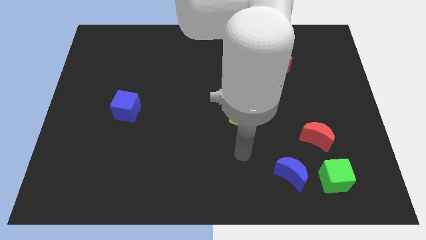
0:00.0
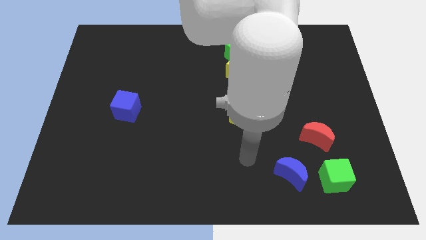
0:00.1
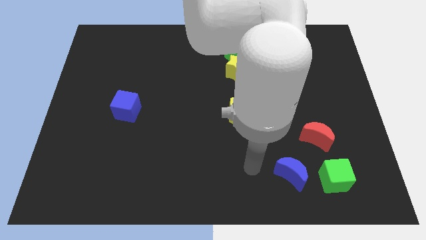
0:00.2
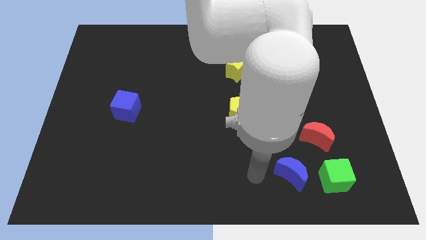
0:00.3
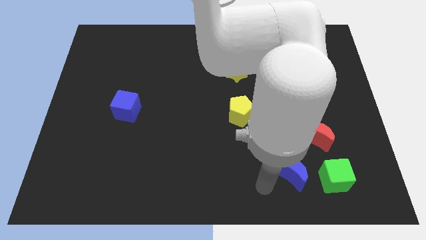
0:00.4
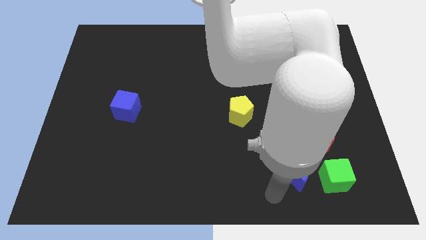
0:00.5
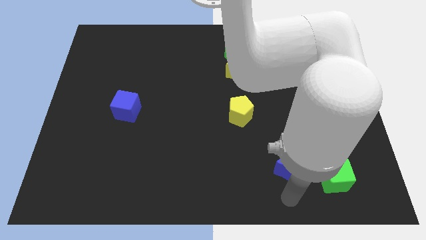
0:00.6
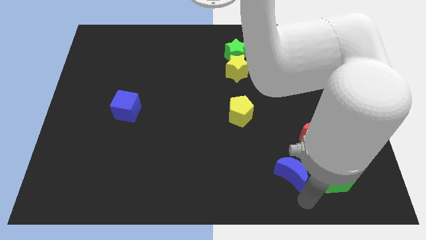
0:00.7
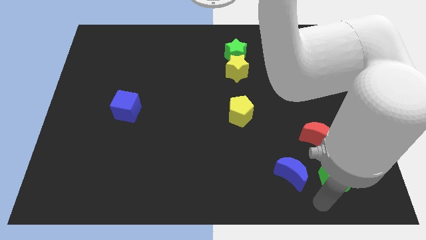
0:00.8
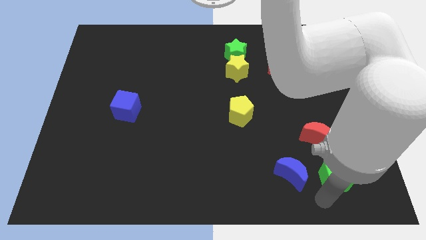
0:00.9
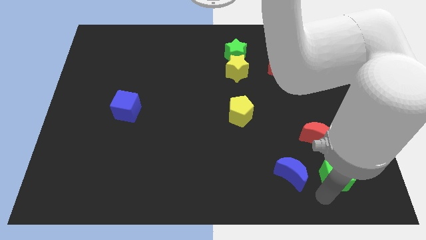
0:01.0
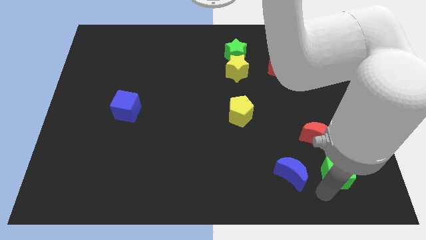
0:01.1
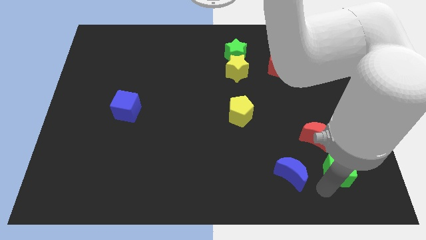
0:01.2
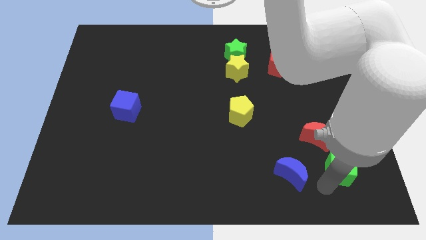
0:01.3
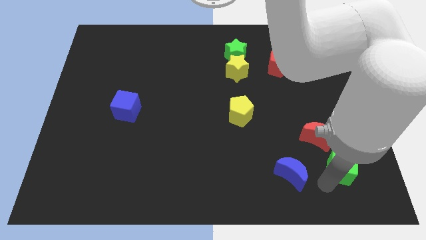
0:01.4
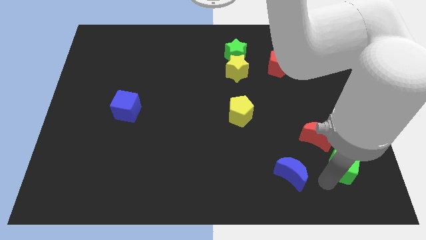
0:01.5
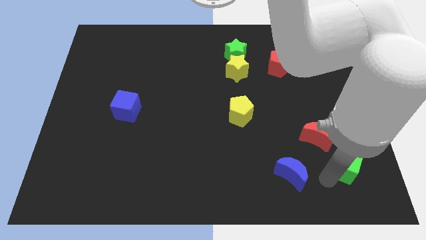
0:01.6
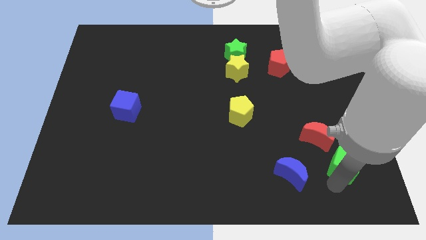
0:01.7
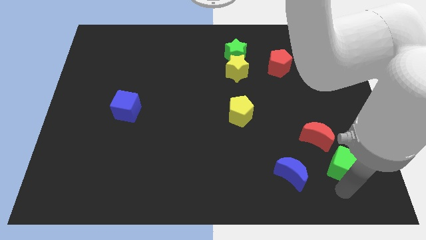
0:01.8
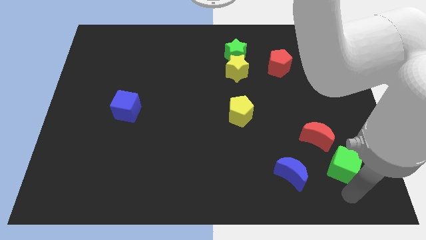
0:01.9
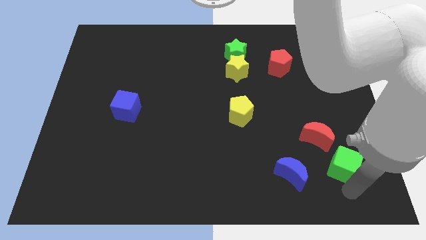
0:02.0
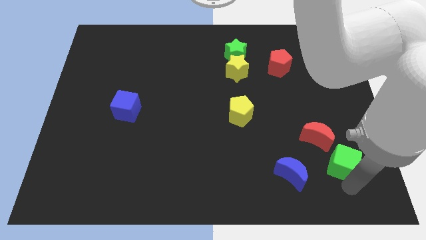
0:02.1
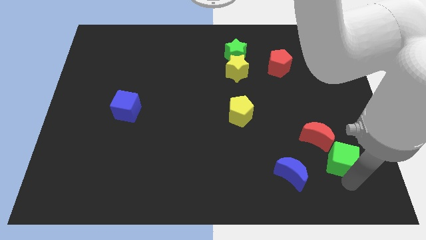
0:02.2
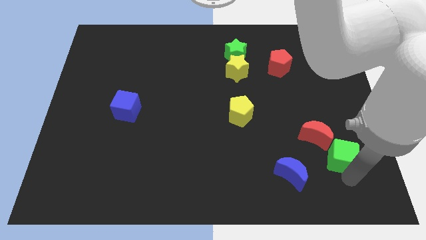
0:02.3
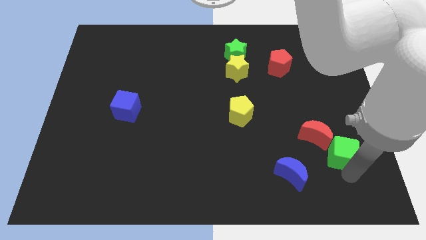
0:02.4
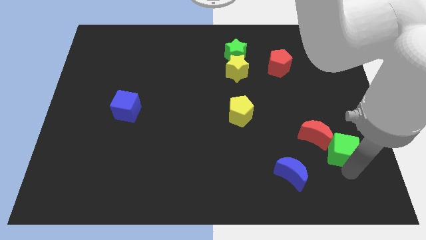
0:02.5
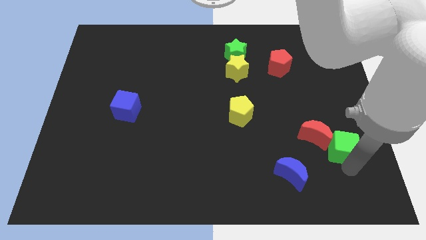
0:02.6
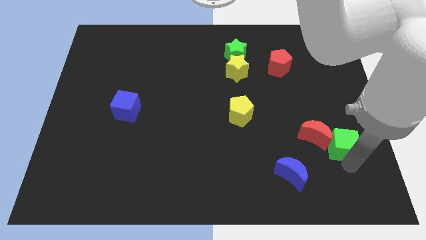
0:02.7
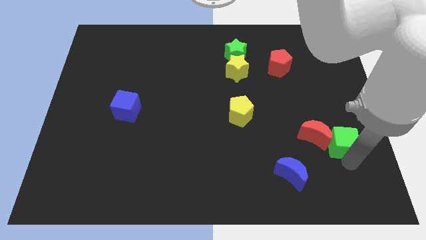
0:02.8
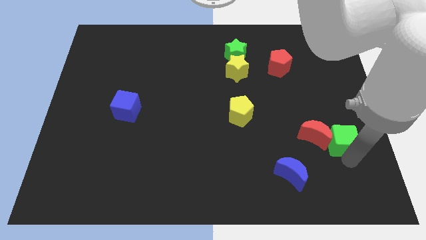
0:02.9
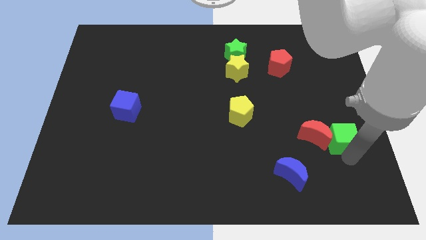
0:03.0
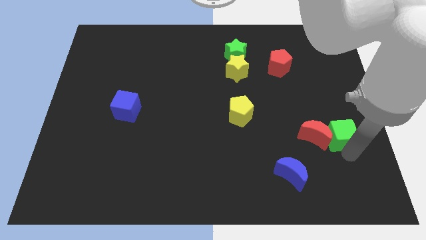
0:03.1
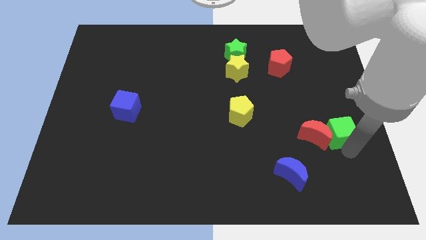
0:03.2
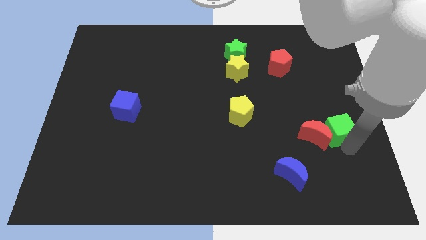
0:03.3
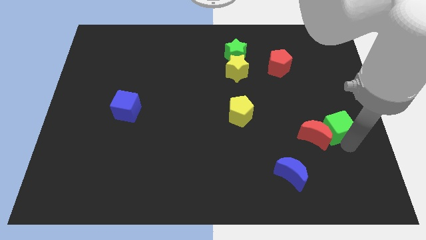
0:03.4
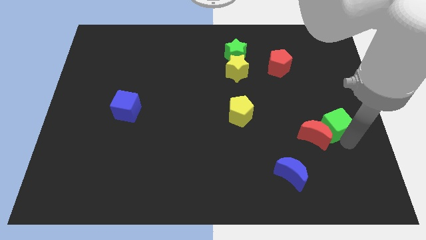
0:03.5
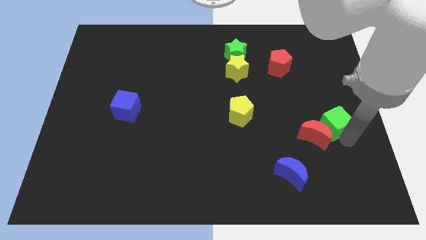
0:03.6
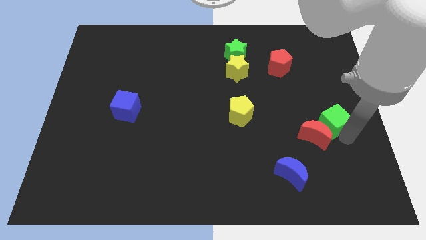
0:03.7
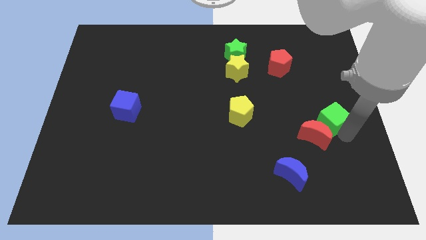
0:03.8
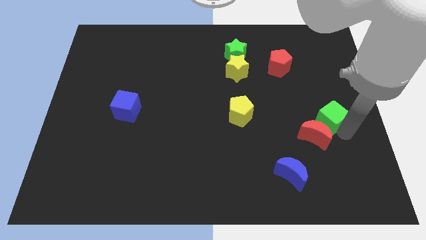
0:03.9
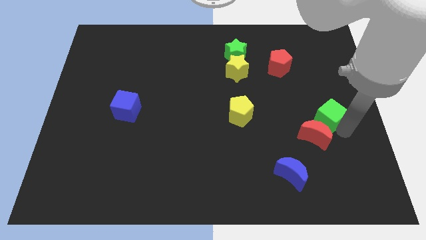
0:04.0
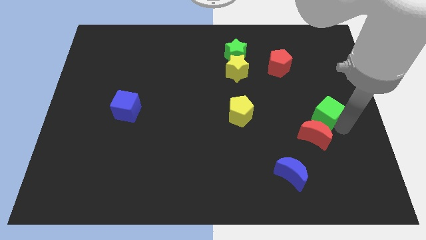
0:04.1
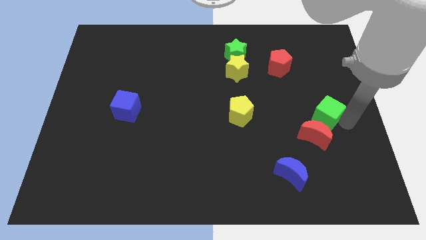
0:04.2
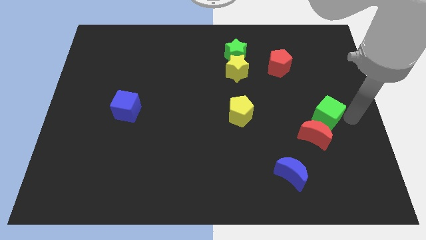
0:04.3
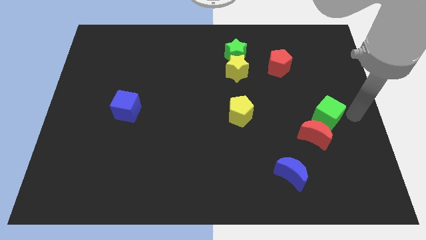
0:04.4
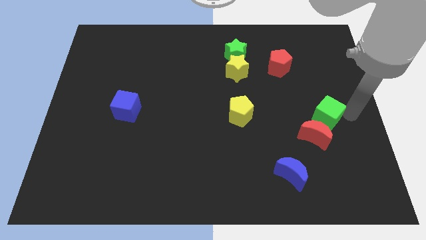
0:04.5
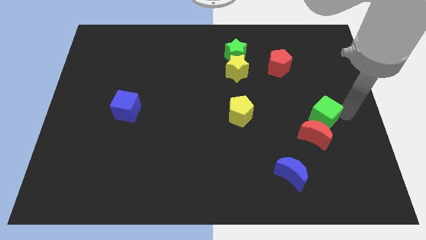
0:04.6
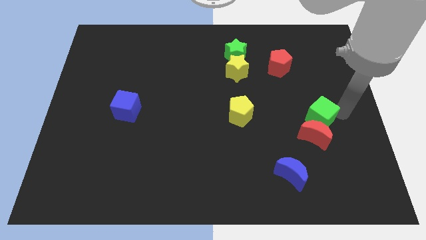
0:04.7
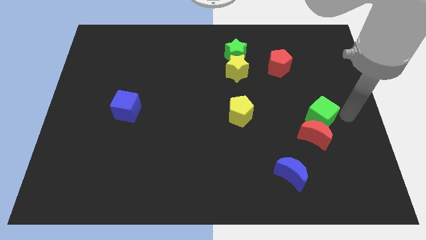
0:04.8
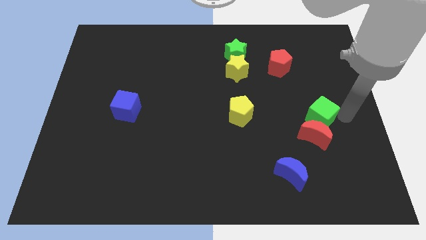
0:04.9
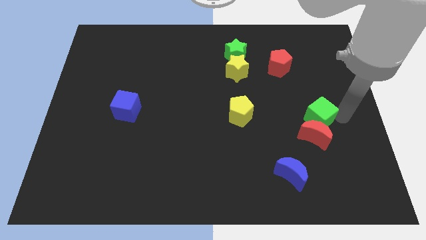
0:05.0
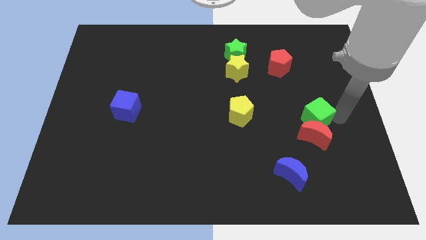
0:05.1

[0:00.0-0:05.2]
move the green cube to the top left side of the red moon

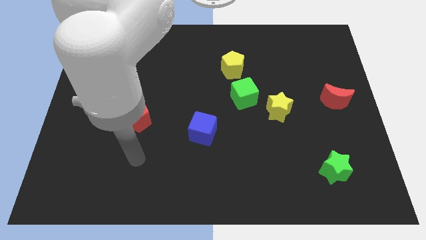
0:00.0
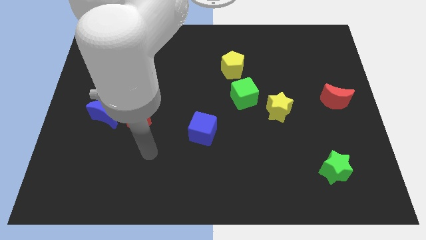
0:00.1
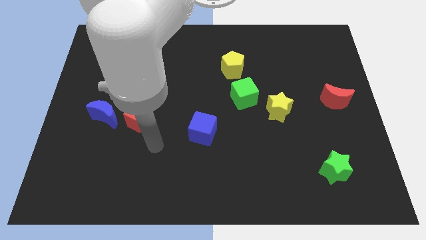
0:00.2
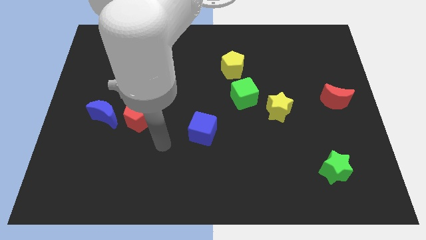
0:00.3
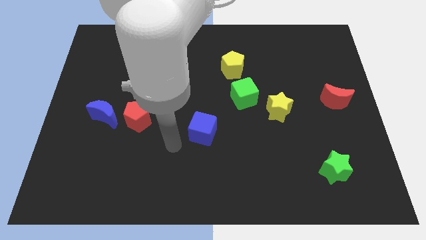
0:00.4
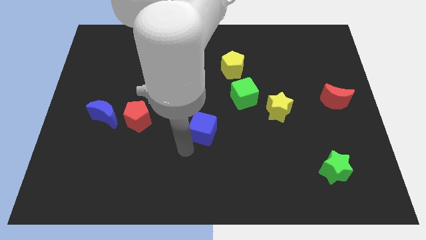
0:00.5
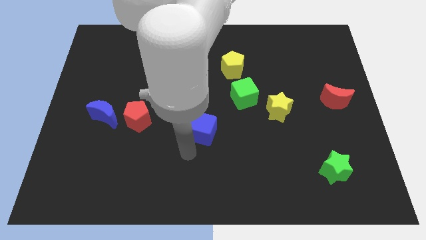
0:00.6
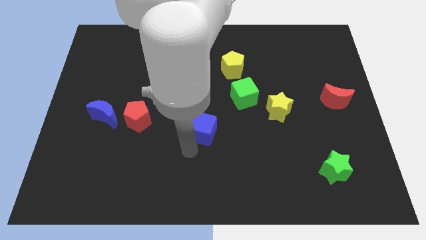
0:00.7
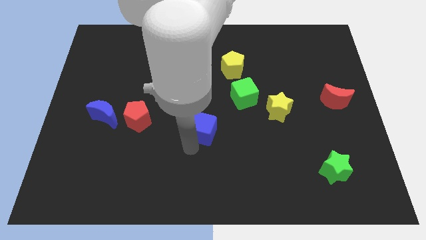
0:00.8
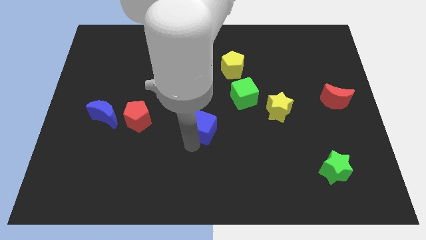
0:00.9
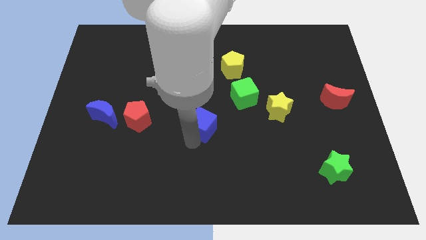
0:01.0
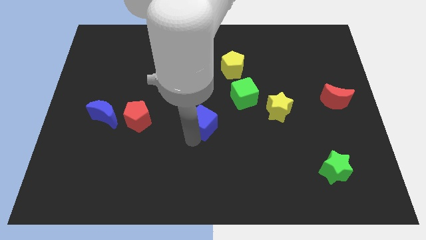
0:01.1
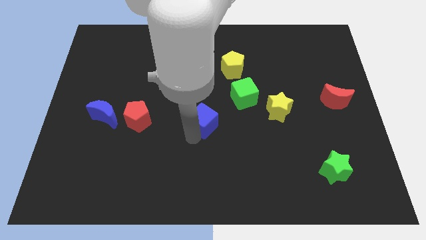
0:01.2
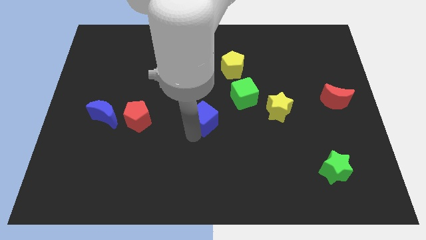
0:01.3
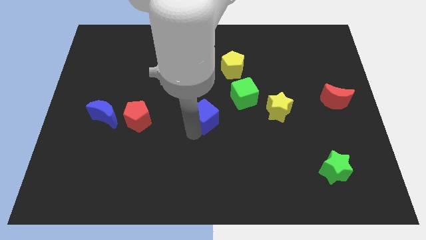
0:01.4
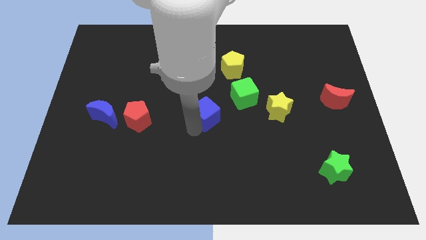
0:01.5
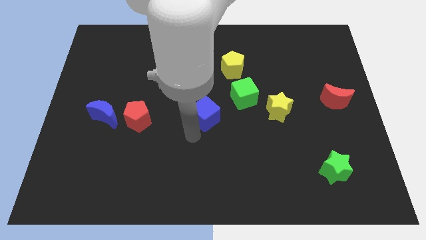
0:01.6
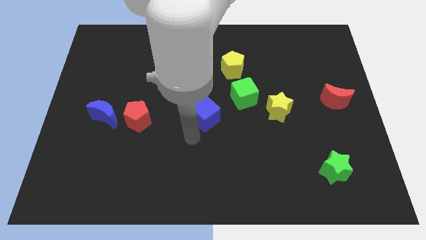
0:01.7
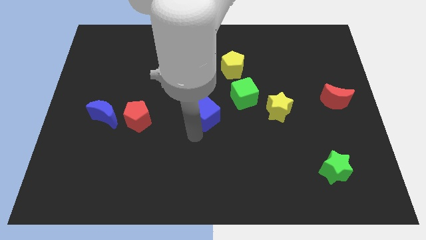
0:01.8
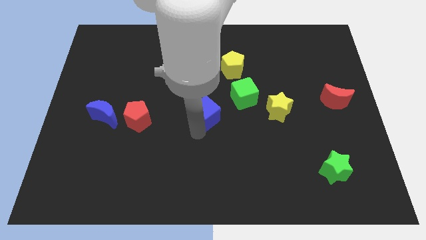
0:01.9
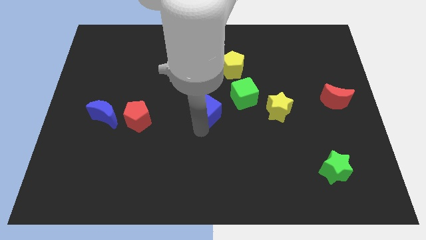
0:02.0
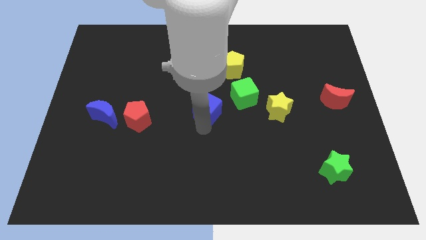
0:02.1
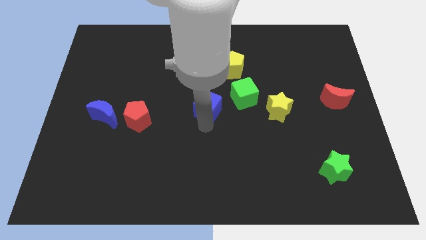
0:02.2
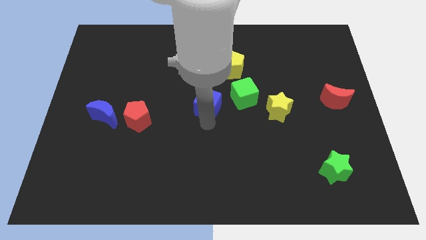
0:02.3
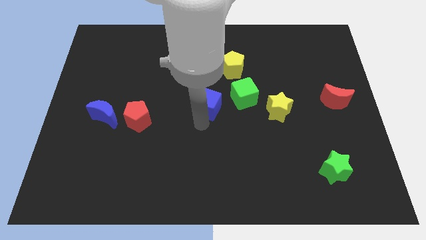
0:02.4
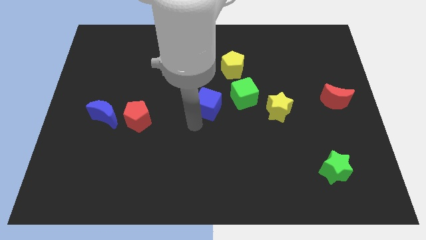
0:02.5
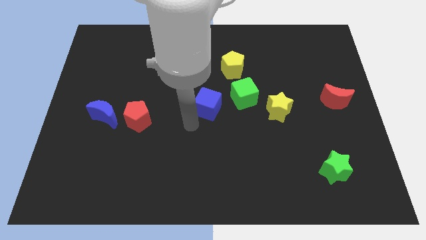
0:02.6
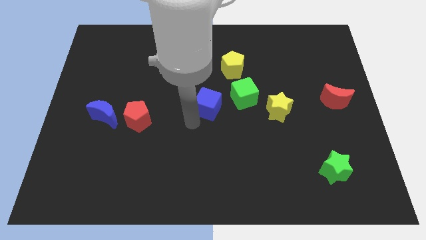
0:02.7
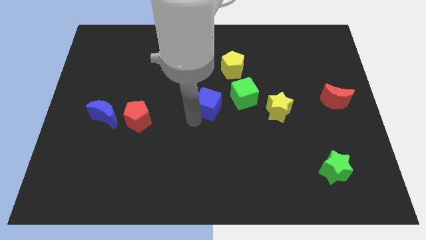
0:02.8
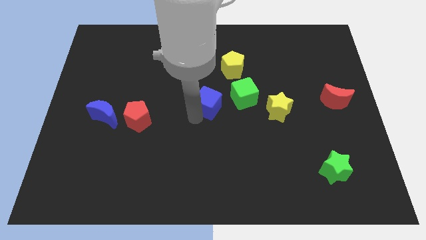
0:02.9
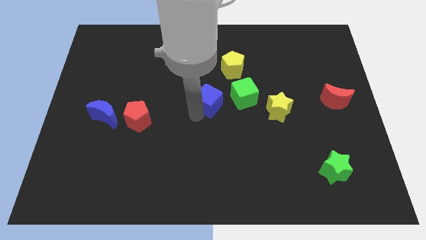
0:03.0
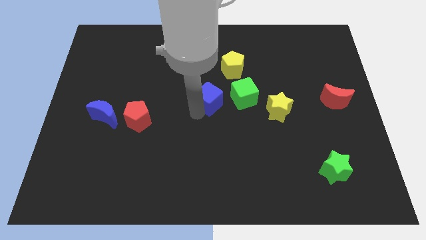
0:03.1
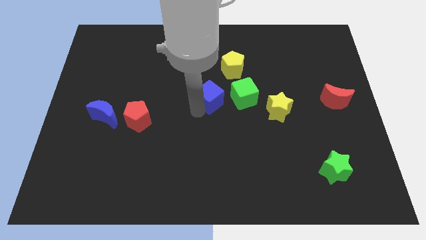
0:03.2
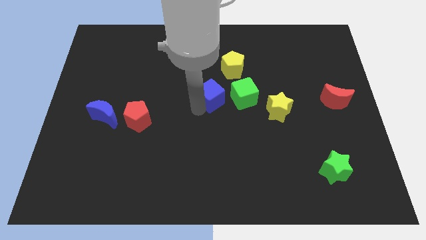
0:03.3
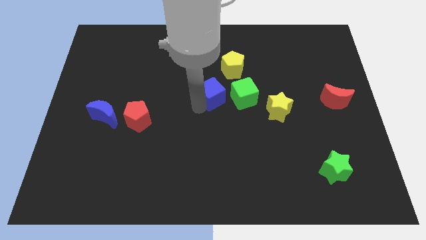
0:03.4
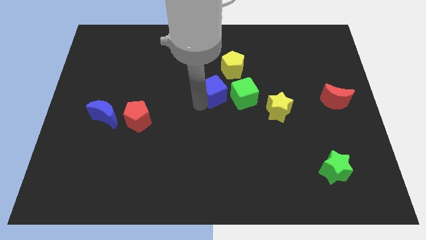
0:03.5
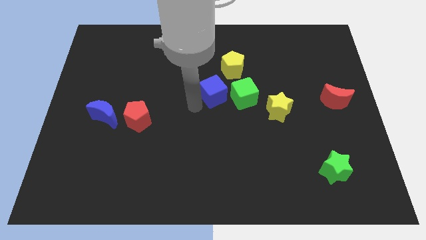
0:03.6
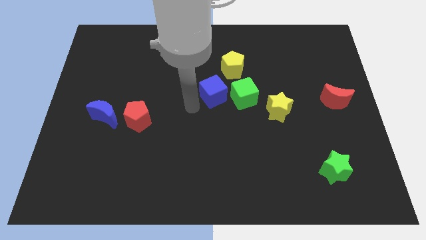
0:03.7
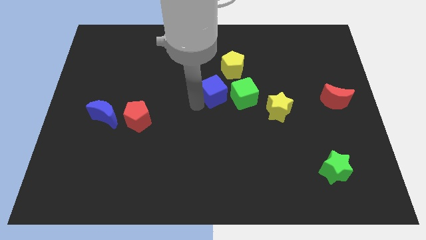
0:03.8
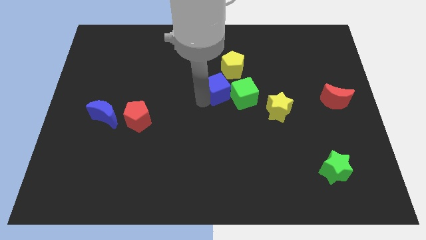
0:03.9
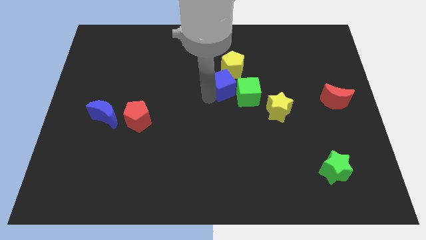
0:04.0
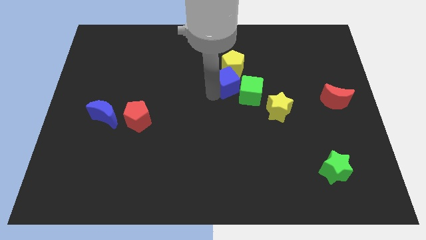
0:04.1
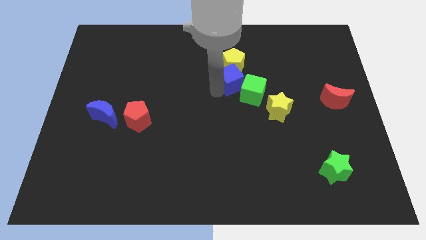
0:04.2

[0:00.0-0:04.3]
move the blue cube to the bottom right side of the yellow pentagon
